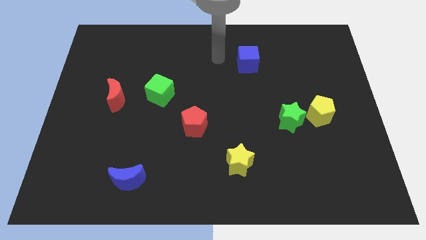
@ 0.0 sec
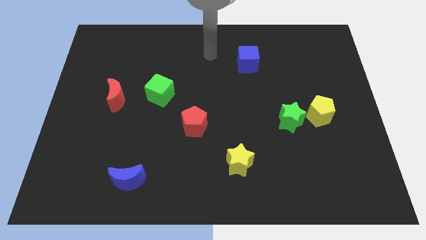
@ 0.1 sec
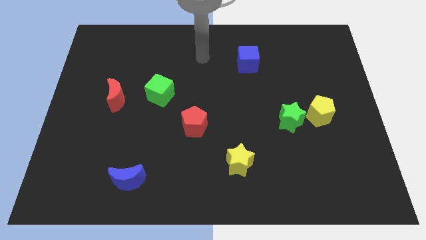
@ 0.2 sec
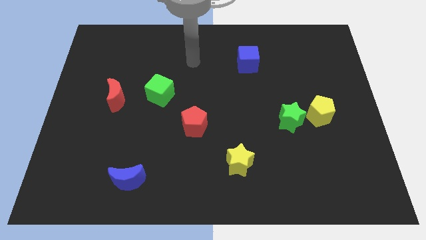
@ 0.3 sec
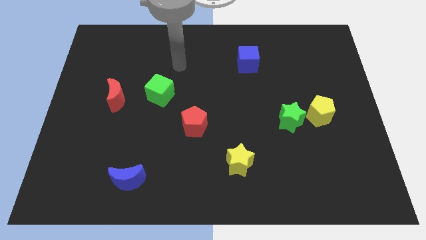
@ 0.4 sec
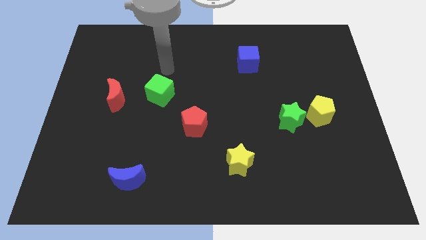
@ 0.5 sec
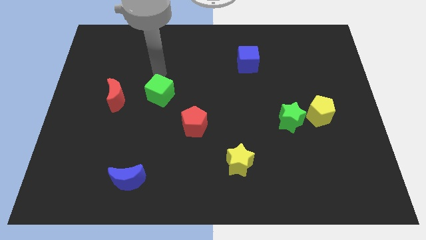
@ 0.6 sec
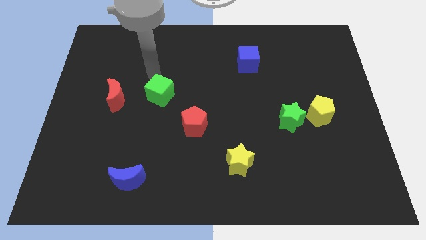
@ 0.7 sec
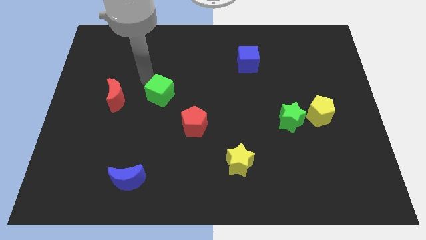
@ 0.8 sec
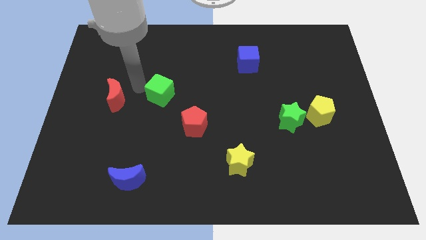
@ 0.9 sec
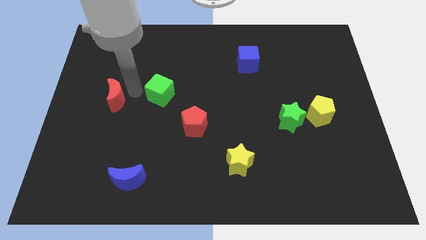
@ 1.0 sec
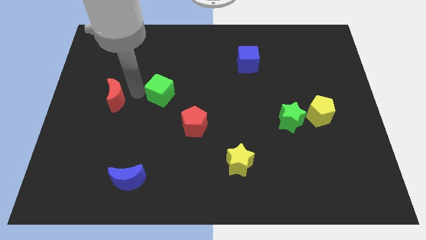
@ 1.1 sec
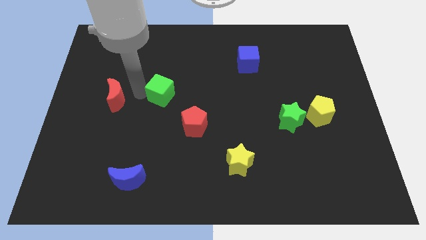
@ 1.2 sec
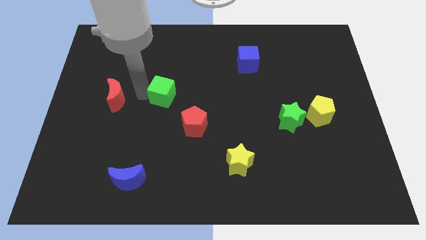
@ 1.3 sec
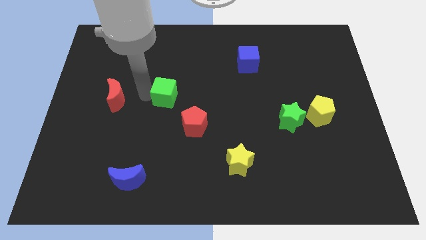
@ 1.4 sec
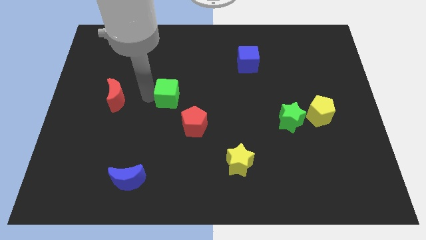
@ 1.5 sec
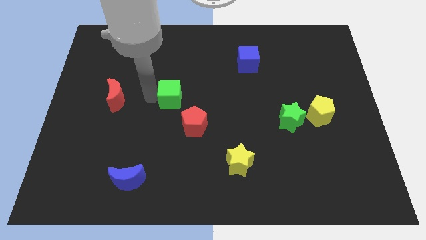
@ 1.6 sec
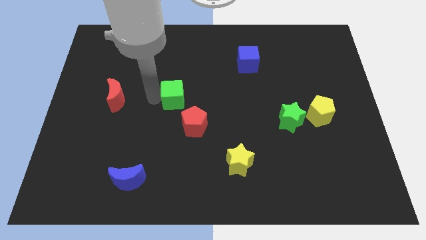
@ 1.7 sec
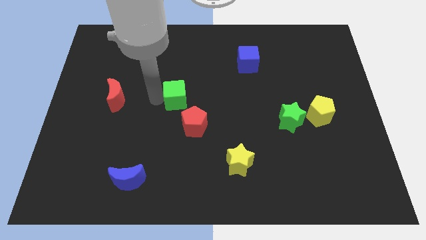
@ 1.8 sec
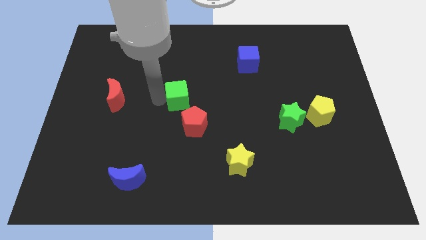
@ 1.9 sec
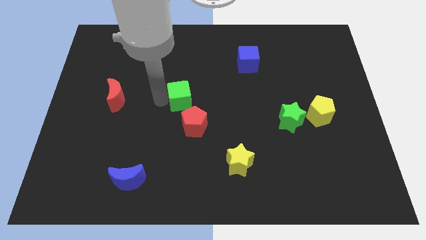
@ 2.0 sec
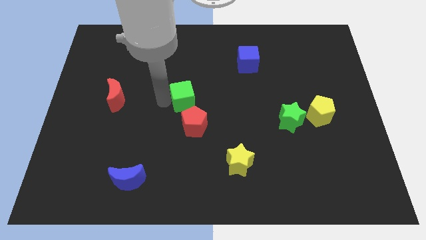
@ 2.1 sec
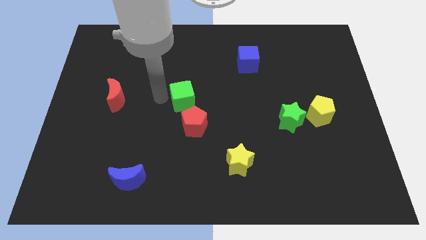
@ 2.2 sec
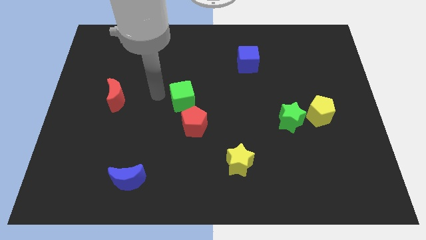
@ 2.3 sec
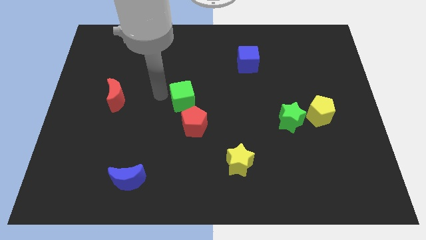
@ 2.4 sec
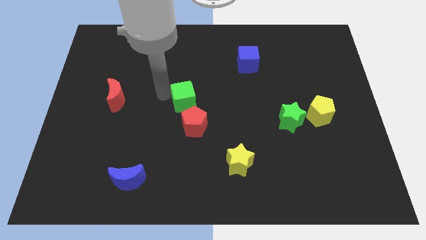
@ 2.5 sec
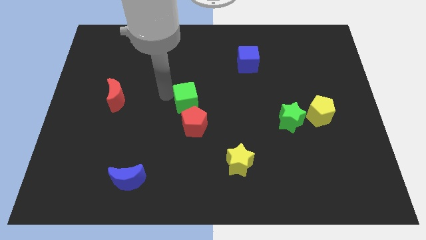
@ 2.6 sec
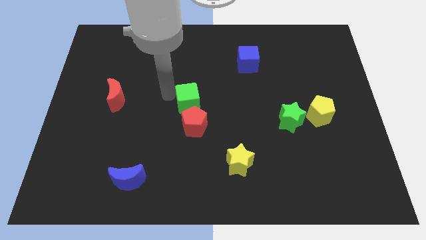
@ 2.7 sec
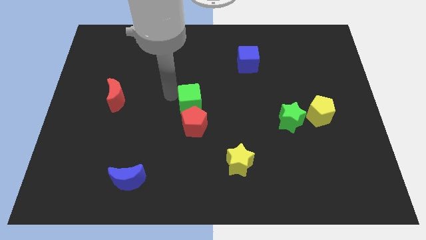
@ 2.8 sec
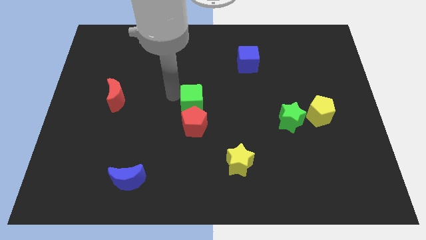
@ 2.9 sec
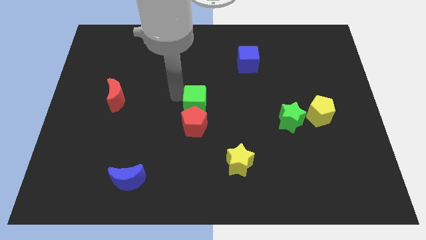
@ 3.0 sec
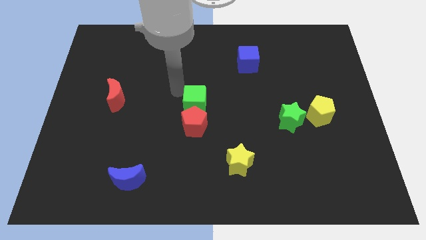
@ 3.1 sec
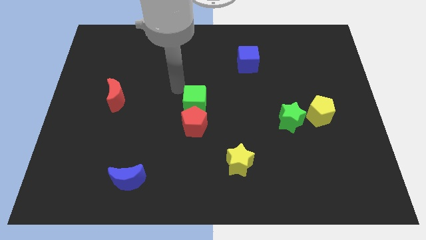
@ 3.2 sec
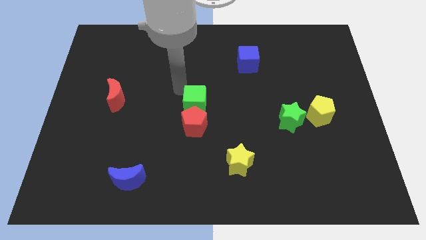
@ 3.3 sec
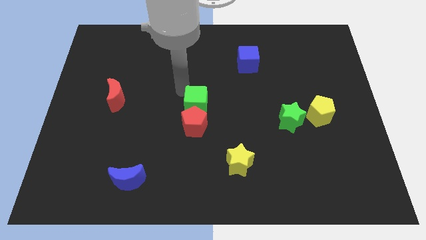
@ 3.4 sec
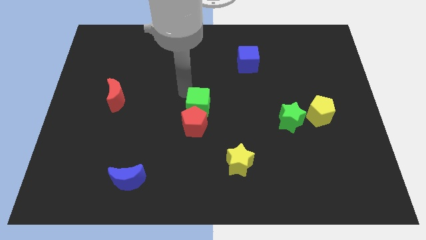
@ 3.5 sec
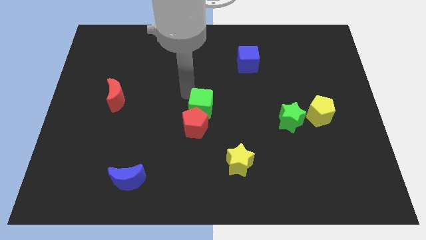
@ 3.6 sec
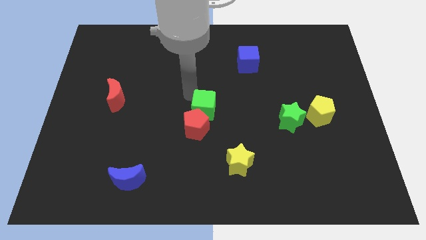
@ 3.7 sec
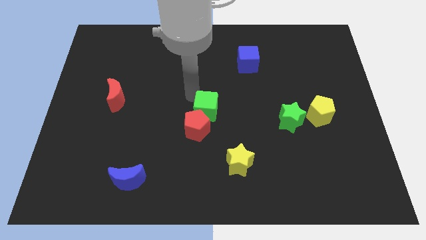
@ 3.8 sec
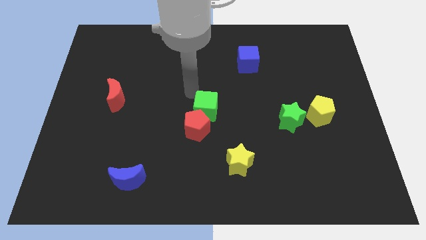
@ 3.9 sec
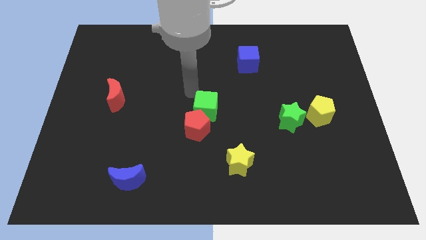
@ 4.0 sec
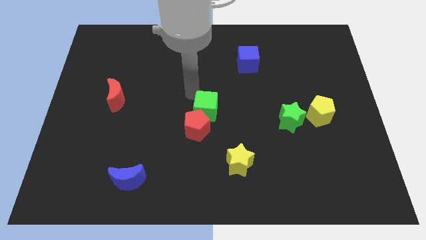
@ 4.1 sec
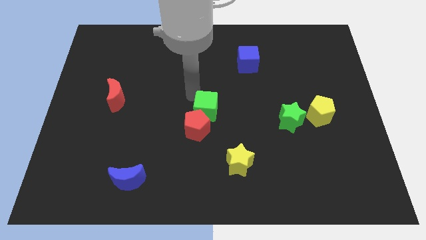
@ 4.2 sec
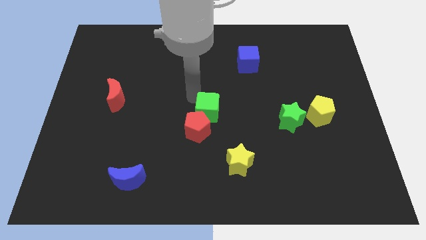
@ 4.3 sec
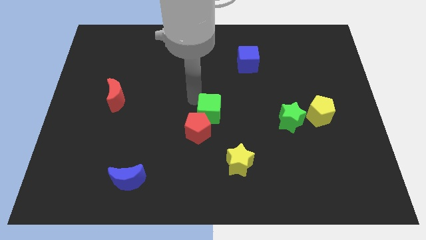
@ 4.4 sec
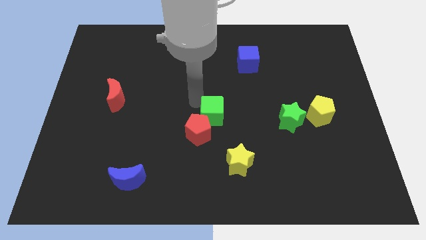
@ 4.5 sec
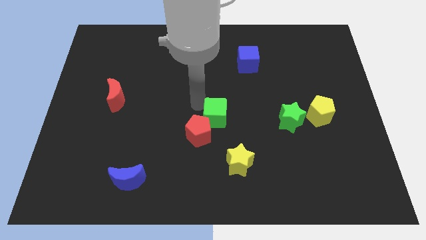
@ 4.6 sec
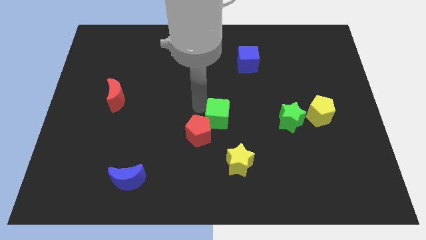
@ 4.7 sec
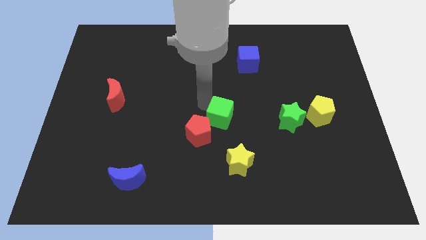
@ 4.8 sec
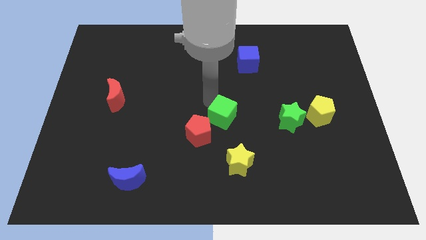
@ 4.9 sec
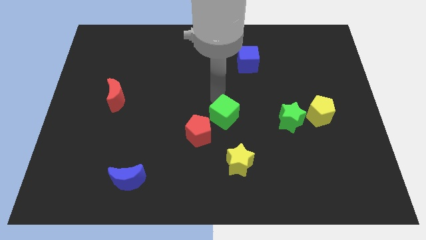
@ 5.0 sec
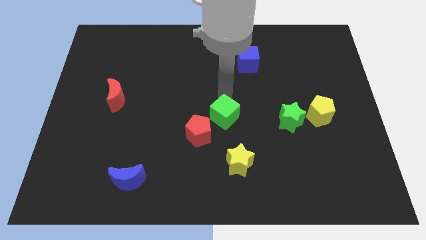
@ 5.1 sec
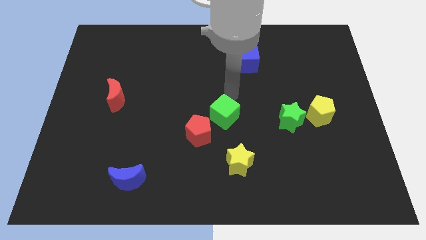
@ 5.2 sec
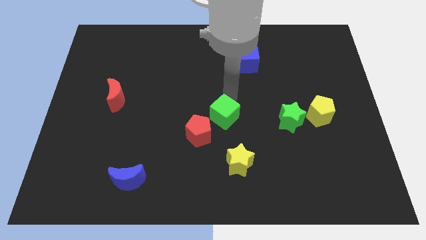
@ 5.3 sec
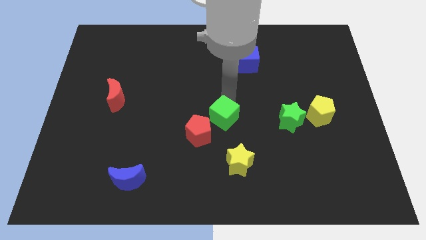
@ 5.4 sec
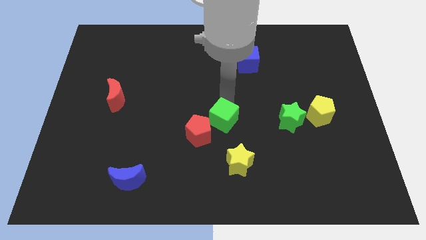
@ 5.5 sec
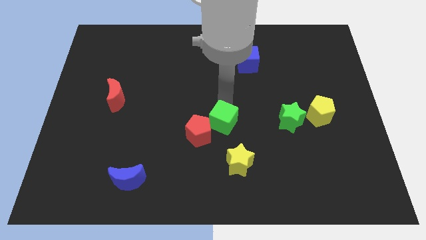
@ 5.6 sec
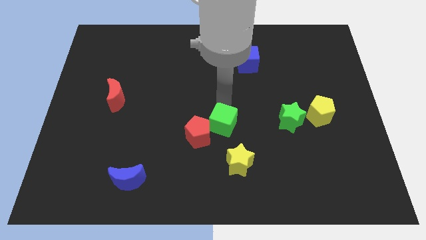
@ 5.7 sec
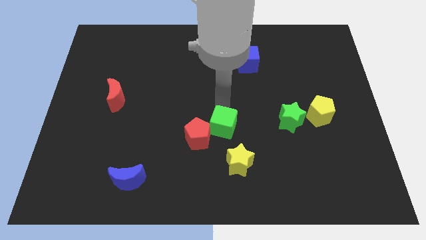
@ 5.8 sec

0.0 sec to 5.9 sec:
move the green cube to the top left side of the yellow star
